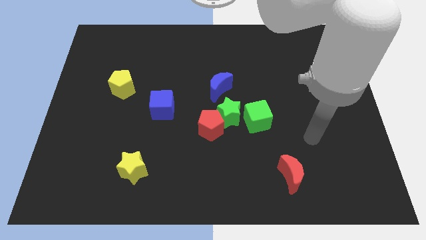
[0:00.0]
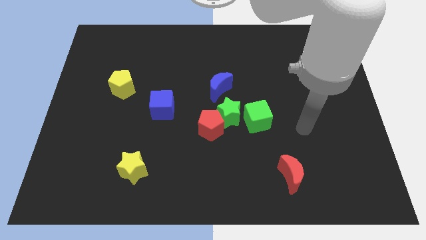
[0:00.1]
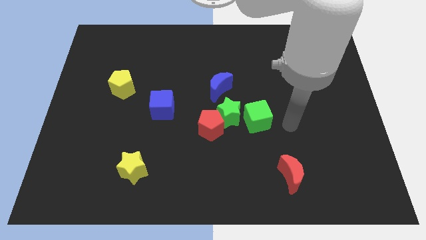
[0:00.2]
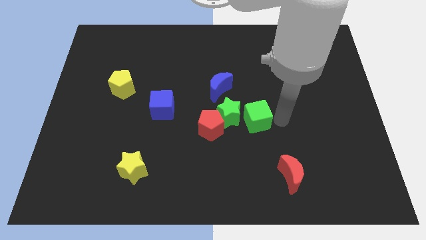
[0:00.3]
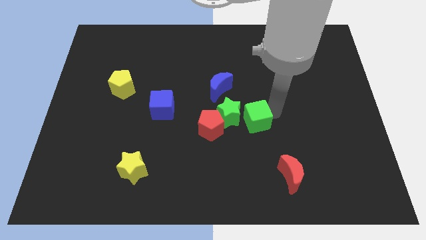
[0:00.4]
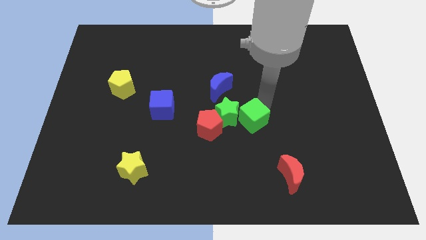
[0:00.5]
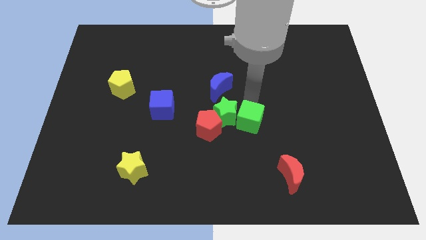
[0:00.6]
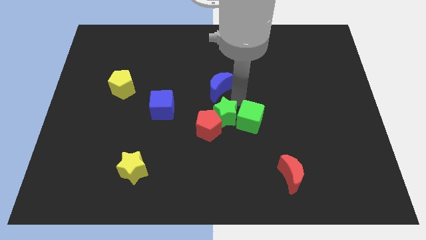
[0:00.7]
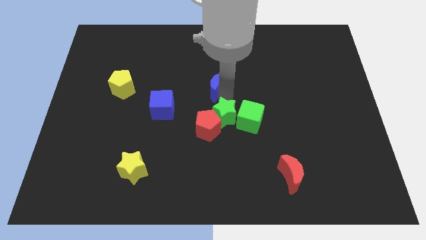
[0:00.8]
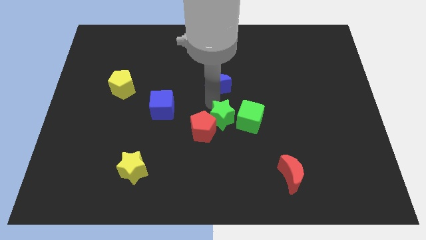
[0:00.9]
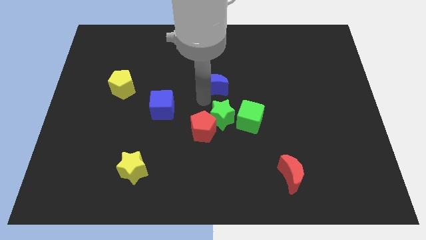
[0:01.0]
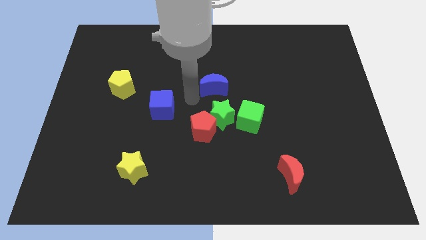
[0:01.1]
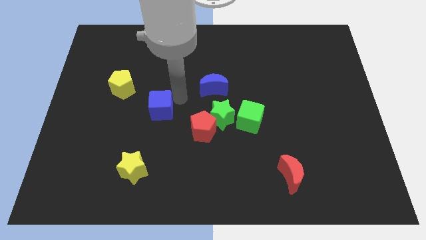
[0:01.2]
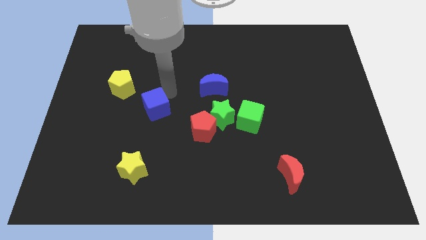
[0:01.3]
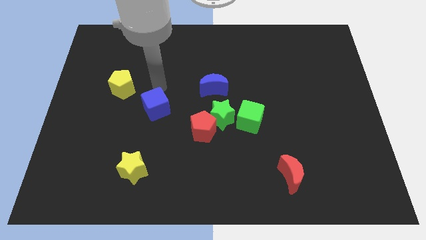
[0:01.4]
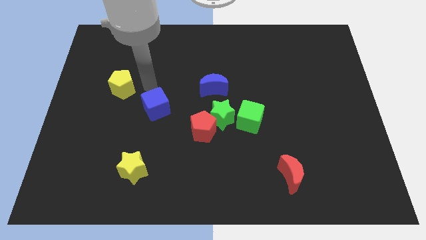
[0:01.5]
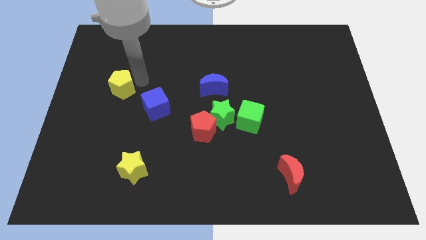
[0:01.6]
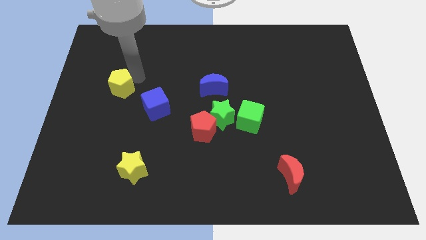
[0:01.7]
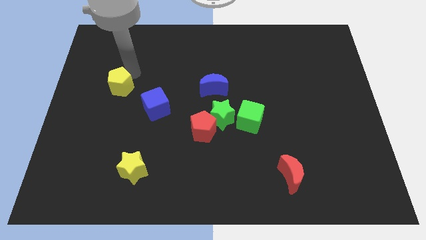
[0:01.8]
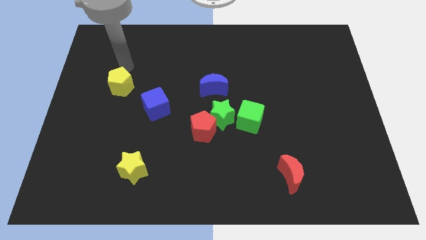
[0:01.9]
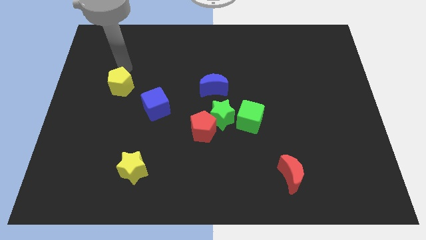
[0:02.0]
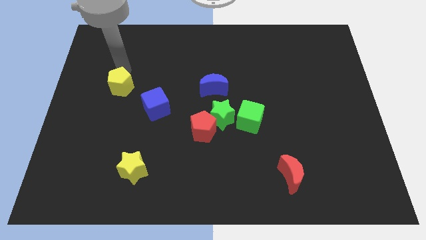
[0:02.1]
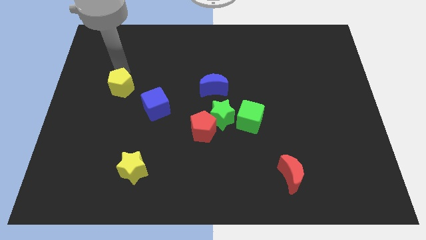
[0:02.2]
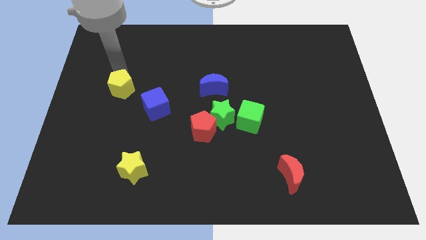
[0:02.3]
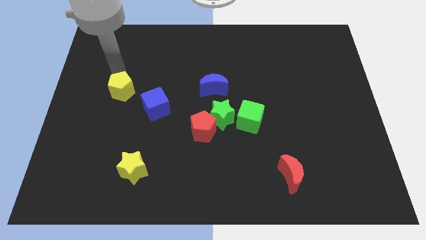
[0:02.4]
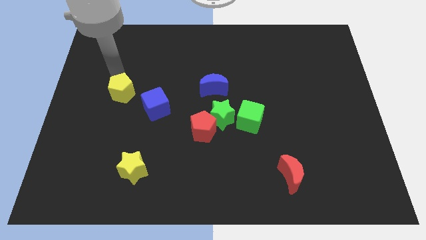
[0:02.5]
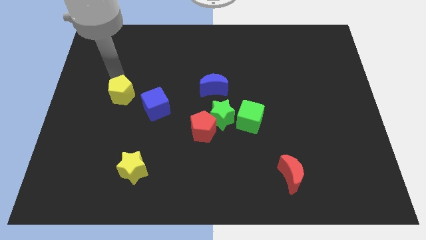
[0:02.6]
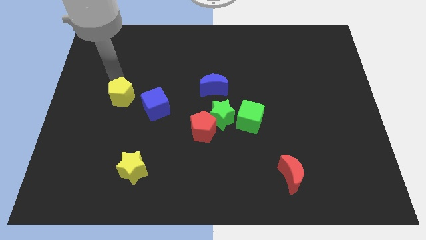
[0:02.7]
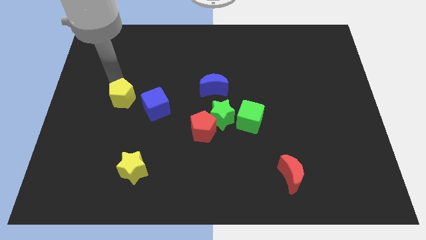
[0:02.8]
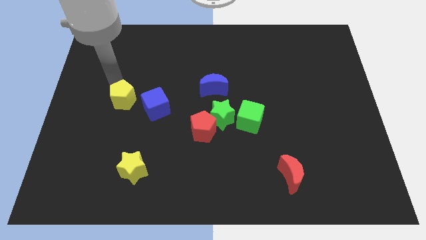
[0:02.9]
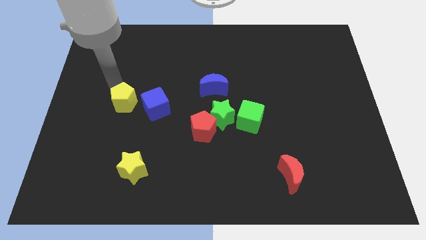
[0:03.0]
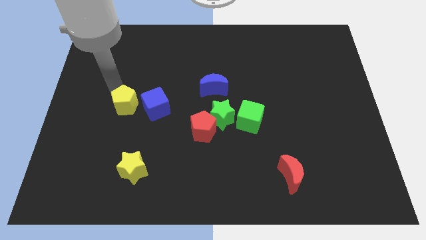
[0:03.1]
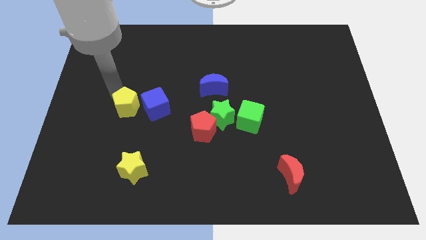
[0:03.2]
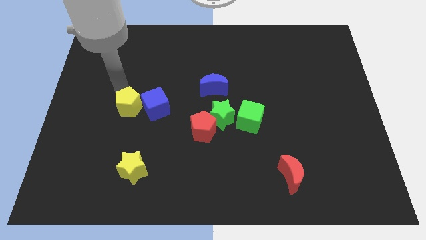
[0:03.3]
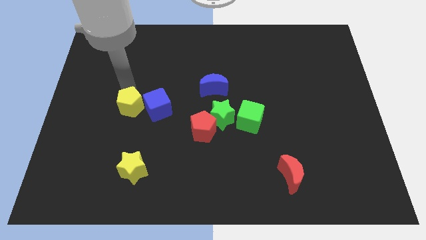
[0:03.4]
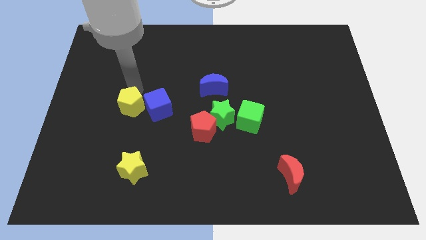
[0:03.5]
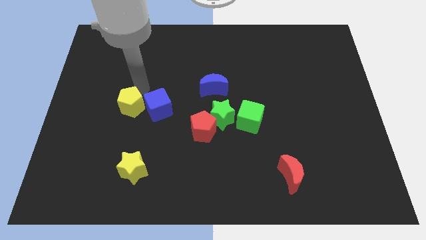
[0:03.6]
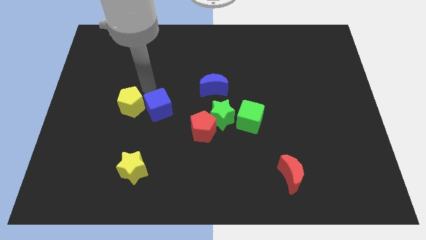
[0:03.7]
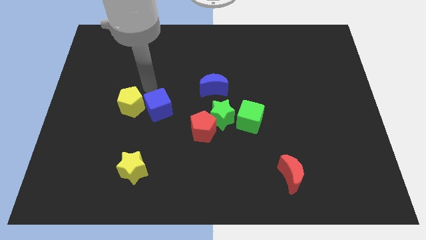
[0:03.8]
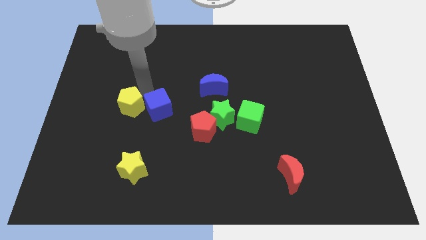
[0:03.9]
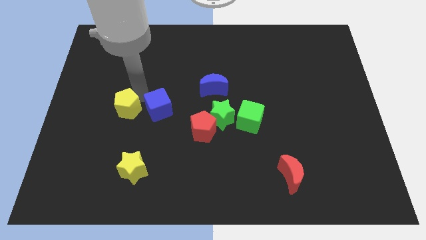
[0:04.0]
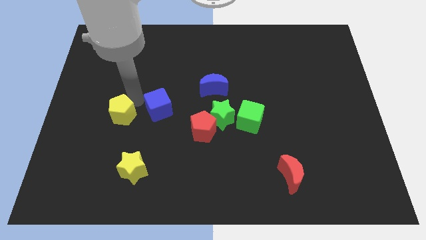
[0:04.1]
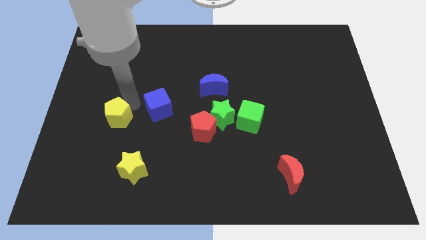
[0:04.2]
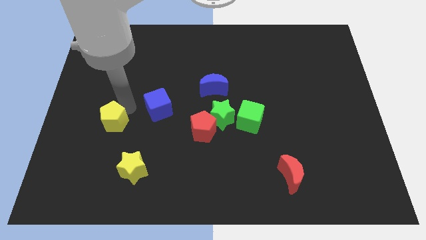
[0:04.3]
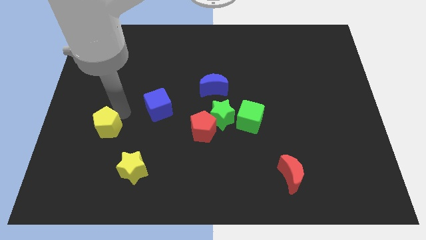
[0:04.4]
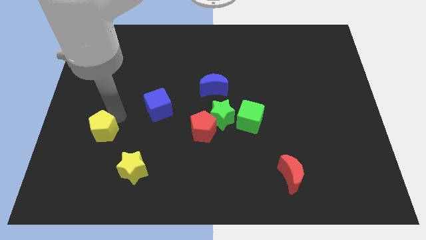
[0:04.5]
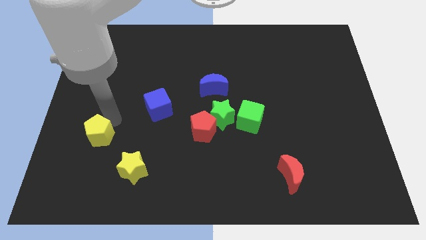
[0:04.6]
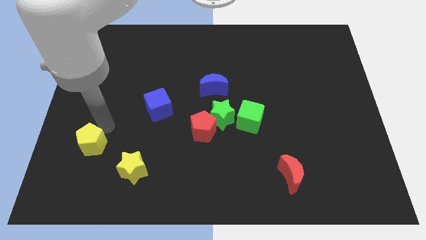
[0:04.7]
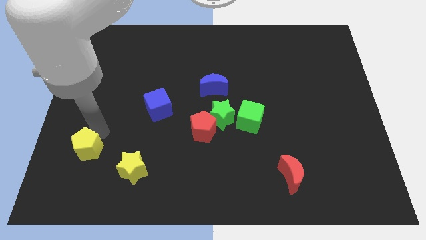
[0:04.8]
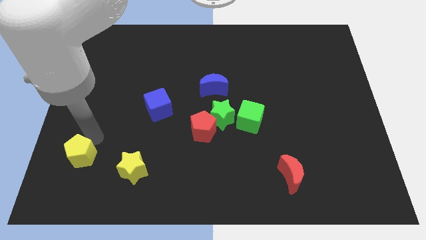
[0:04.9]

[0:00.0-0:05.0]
move the yellow pentagon just left of the yellow star

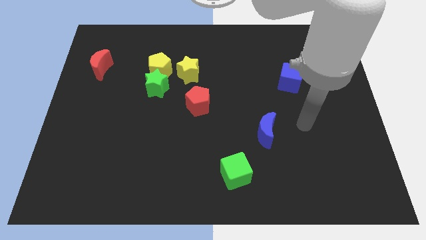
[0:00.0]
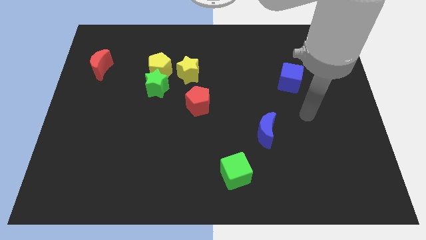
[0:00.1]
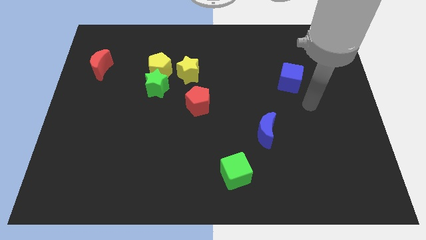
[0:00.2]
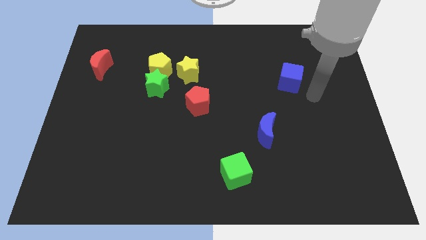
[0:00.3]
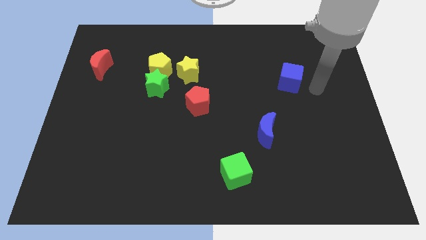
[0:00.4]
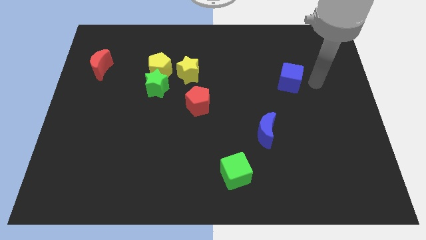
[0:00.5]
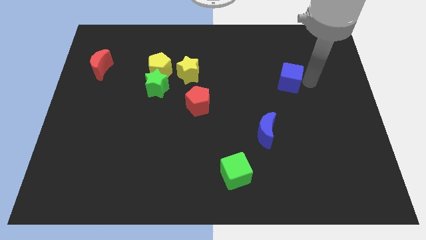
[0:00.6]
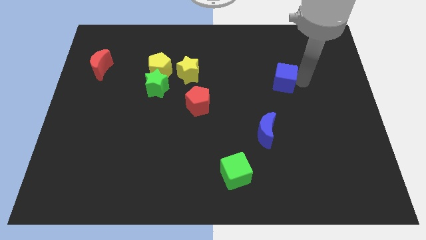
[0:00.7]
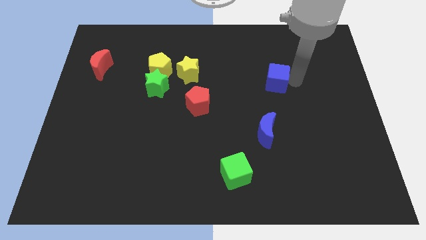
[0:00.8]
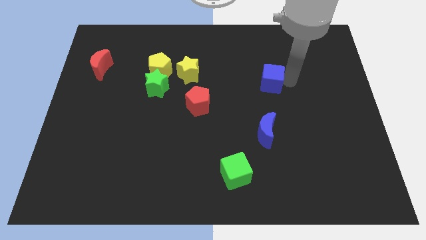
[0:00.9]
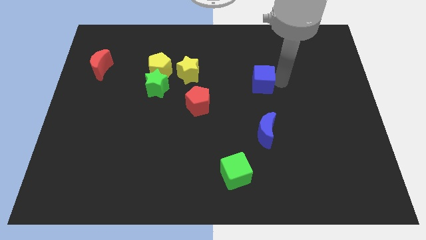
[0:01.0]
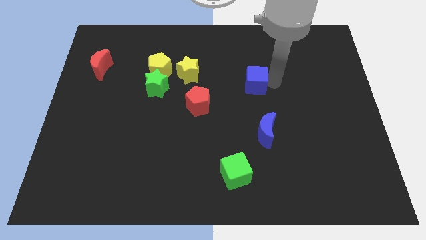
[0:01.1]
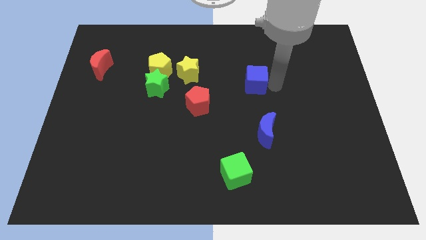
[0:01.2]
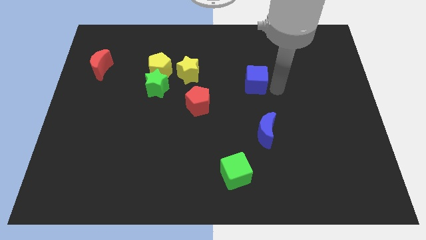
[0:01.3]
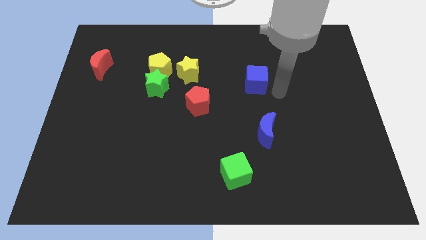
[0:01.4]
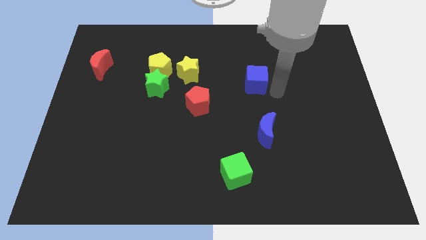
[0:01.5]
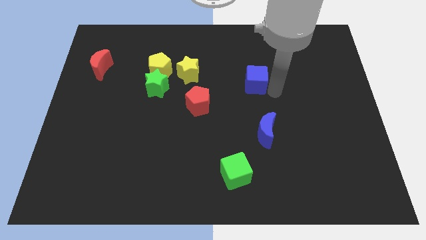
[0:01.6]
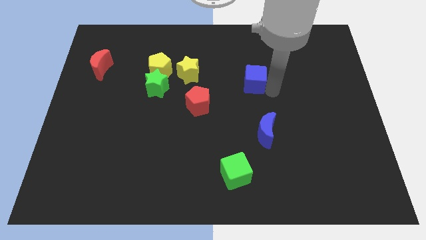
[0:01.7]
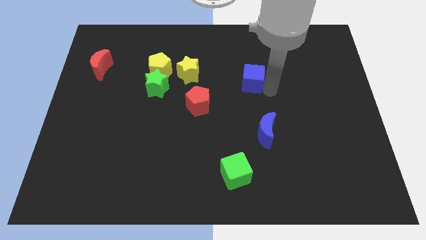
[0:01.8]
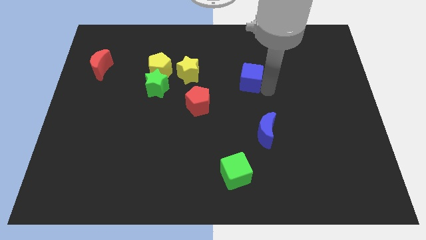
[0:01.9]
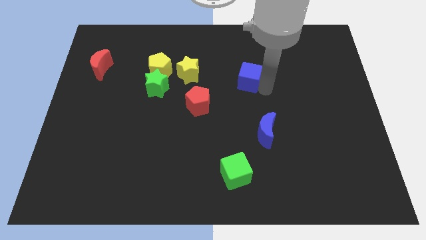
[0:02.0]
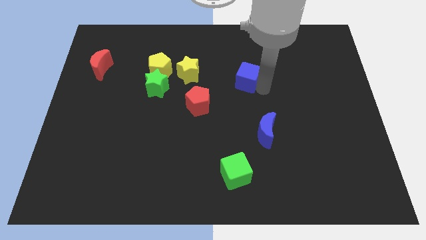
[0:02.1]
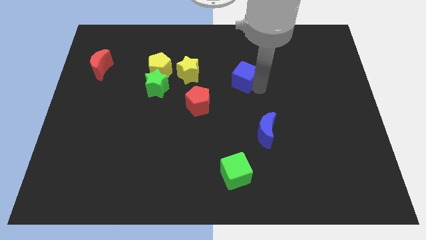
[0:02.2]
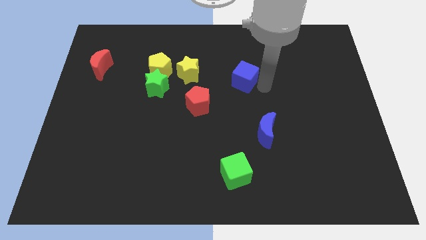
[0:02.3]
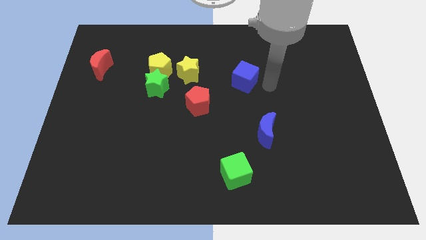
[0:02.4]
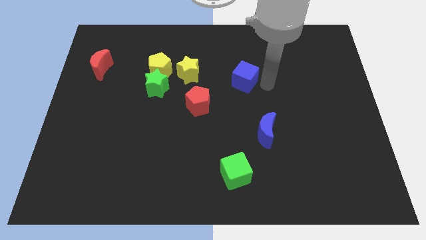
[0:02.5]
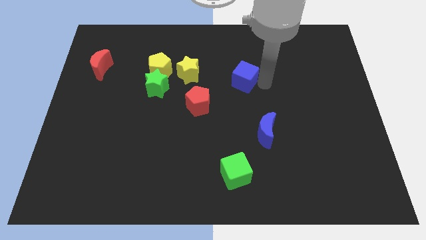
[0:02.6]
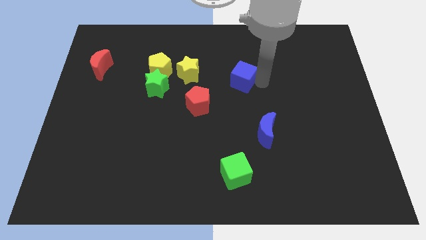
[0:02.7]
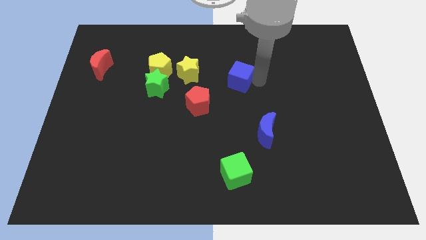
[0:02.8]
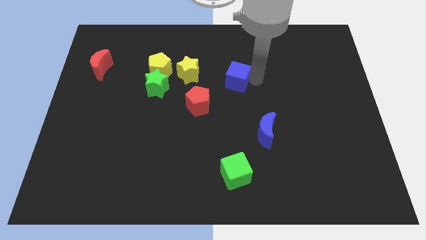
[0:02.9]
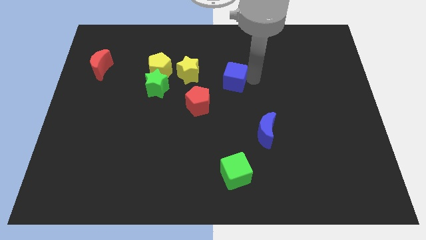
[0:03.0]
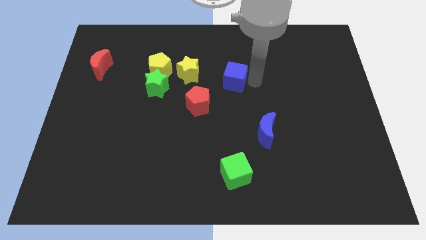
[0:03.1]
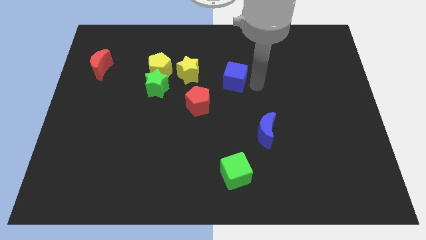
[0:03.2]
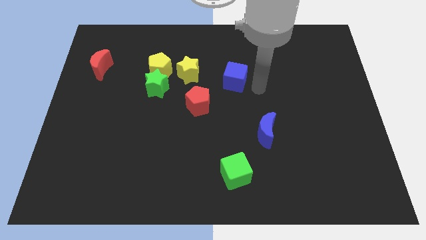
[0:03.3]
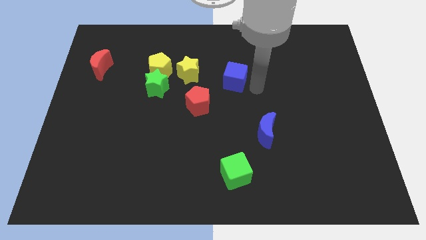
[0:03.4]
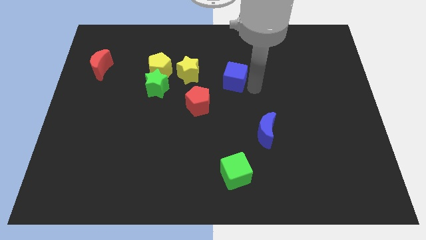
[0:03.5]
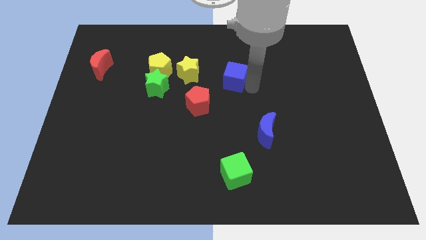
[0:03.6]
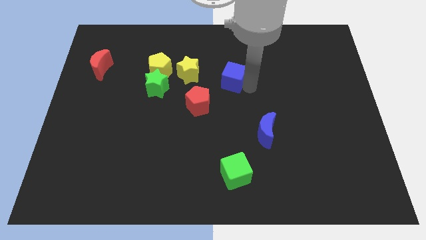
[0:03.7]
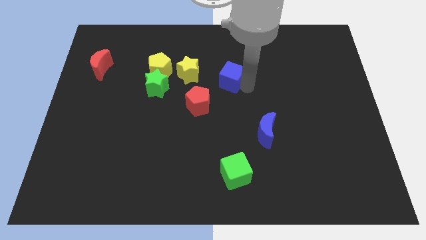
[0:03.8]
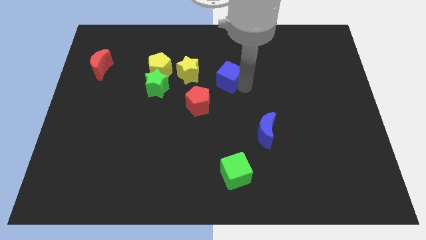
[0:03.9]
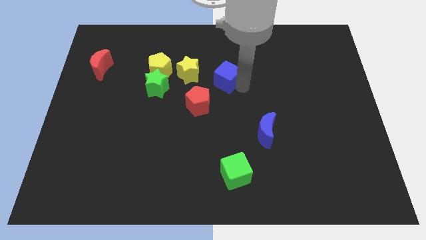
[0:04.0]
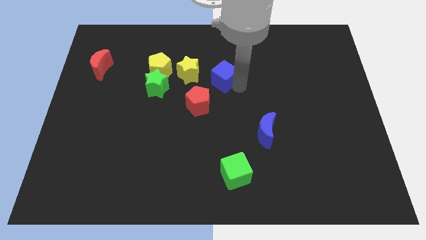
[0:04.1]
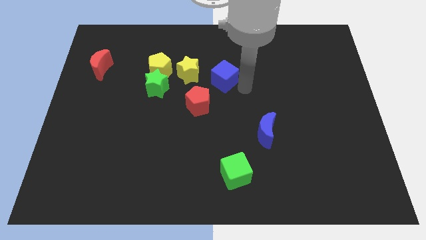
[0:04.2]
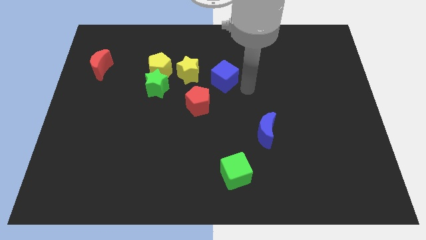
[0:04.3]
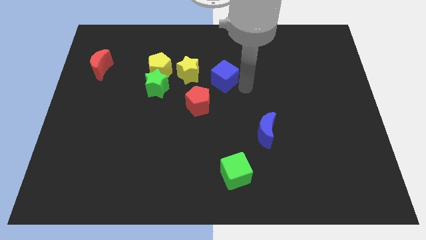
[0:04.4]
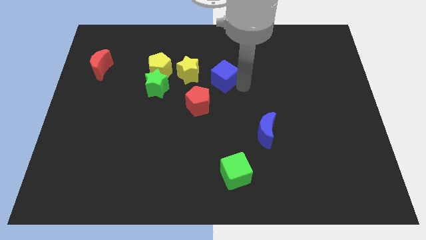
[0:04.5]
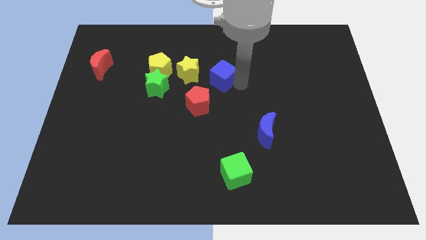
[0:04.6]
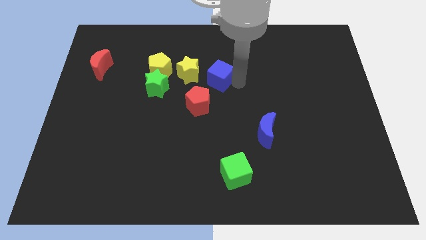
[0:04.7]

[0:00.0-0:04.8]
slide the blue cube to the right side of the yellow pentagon
